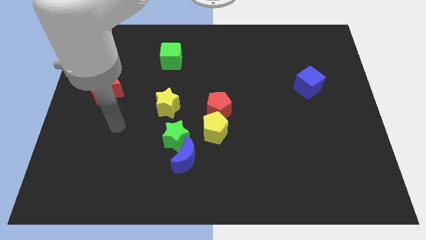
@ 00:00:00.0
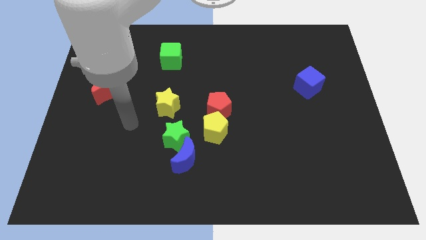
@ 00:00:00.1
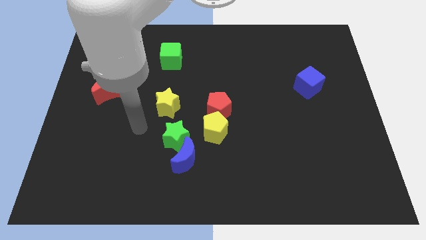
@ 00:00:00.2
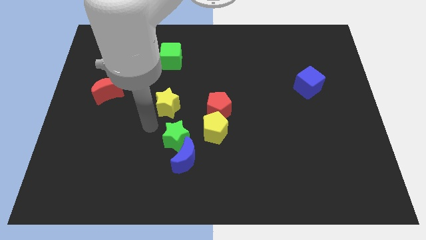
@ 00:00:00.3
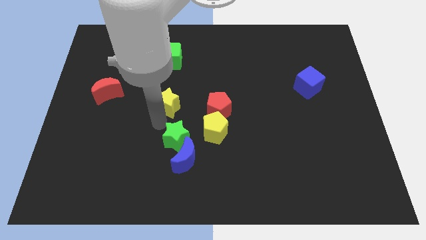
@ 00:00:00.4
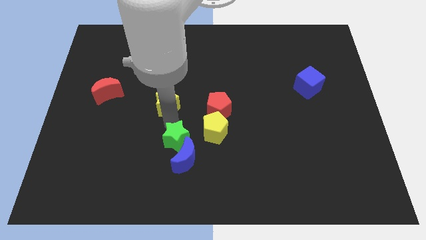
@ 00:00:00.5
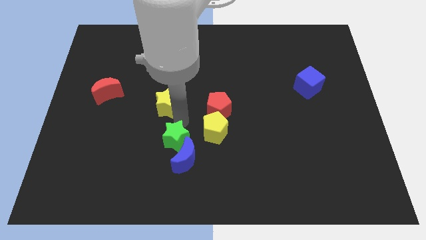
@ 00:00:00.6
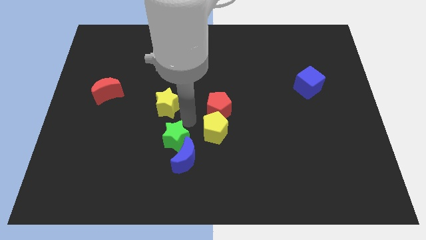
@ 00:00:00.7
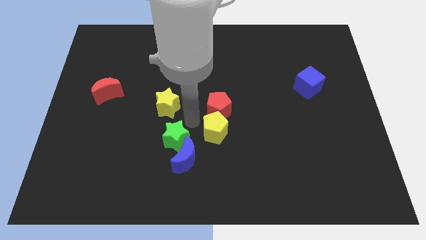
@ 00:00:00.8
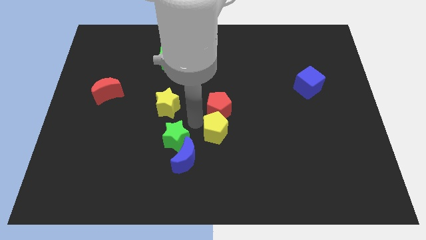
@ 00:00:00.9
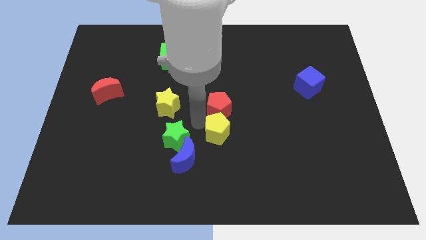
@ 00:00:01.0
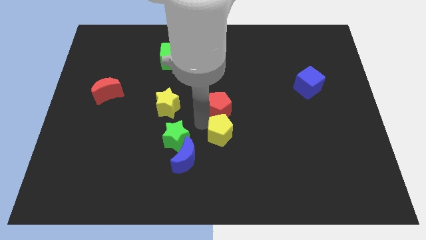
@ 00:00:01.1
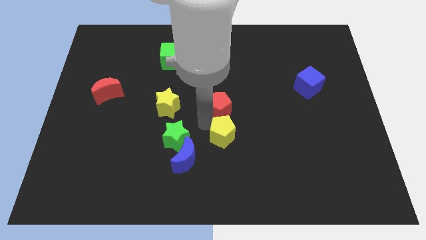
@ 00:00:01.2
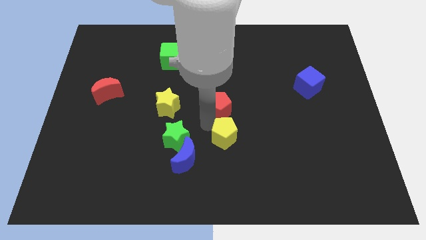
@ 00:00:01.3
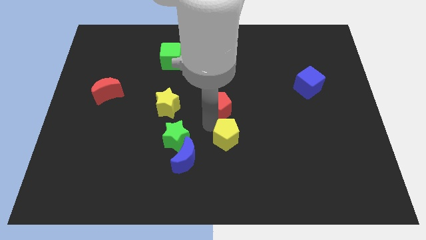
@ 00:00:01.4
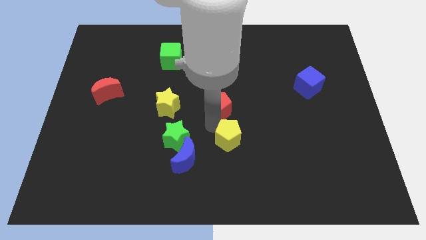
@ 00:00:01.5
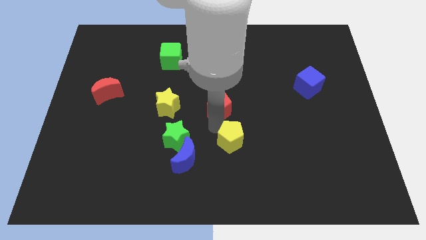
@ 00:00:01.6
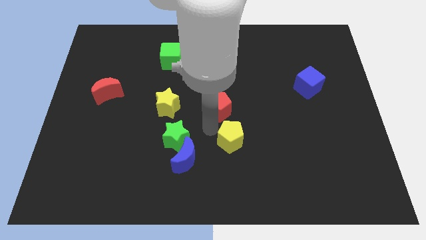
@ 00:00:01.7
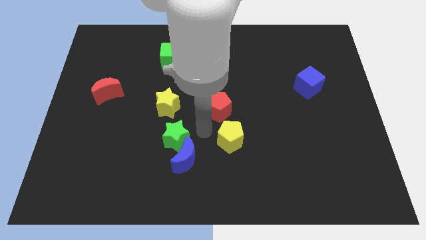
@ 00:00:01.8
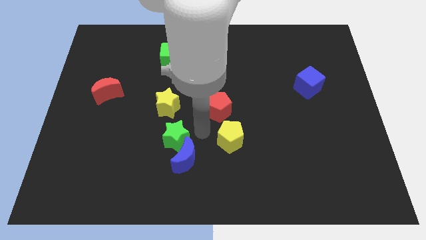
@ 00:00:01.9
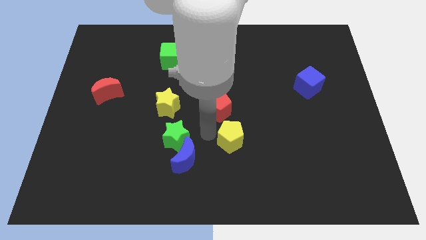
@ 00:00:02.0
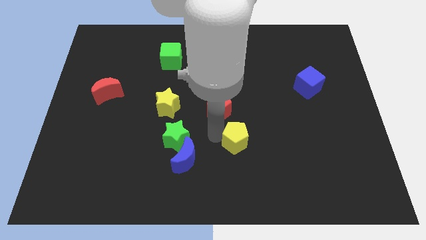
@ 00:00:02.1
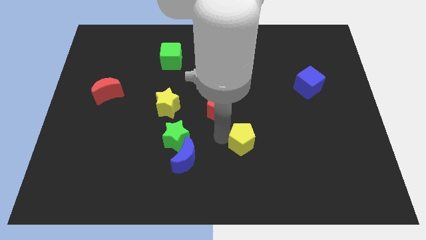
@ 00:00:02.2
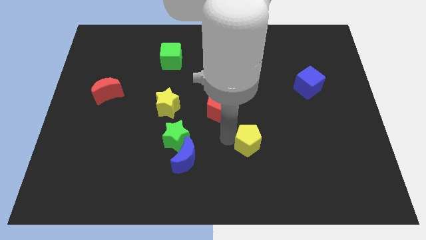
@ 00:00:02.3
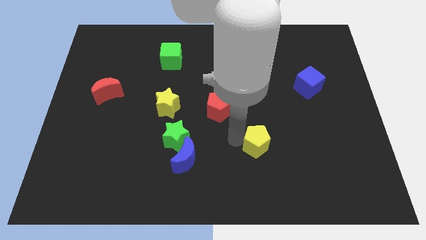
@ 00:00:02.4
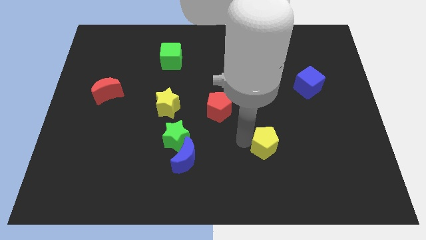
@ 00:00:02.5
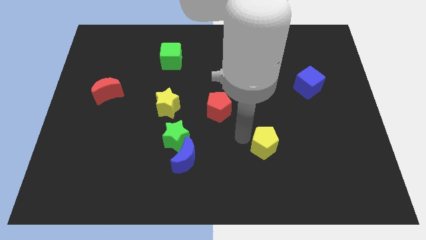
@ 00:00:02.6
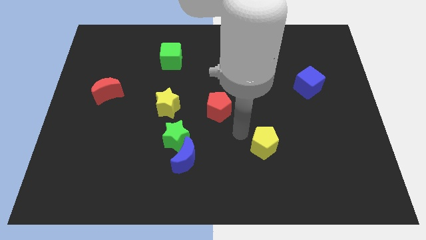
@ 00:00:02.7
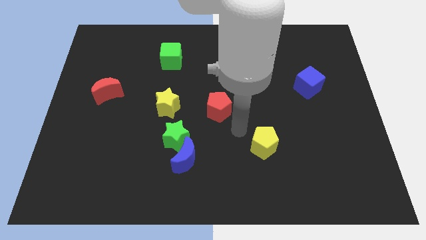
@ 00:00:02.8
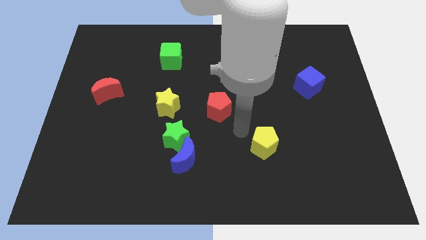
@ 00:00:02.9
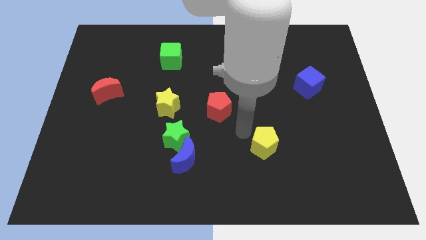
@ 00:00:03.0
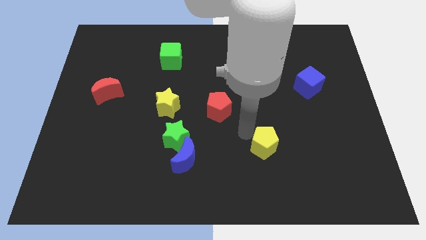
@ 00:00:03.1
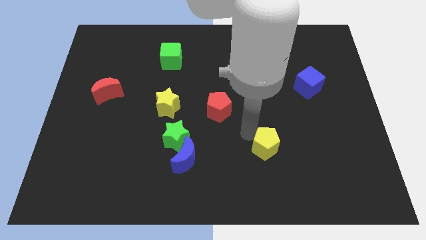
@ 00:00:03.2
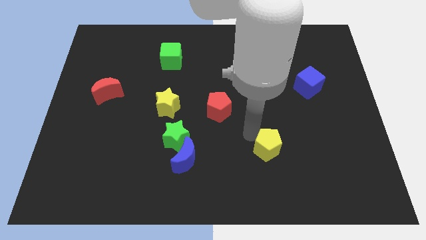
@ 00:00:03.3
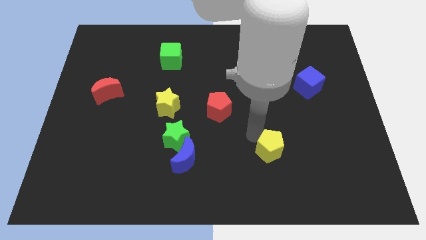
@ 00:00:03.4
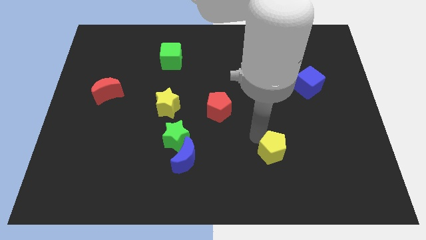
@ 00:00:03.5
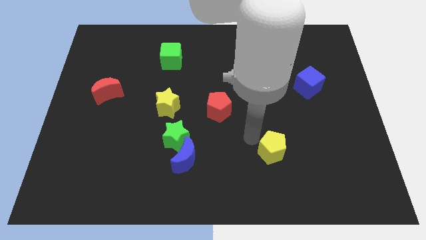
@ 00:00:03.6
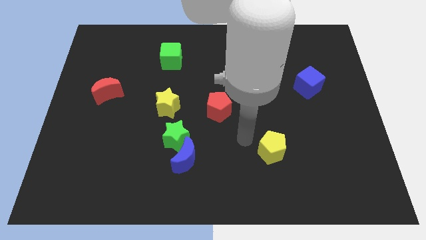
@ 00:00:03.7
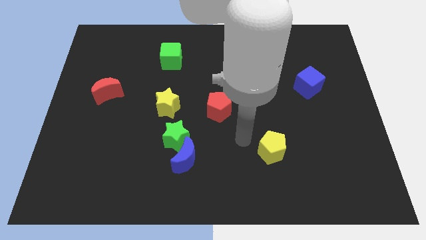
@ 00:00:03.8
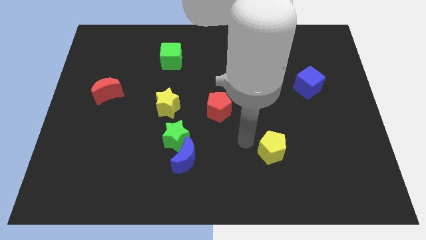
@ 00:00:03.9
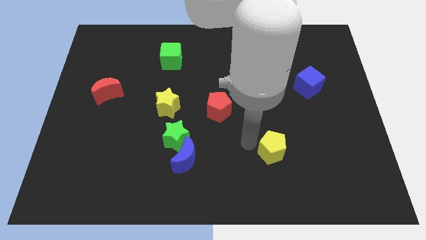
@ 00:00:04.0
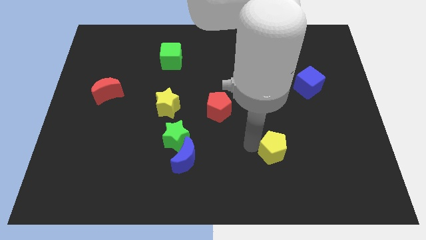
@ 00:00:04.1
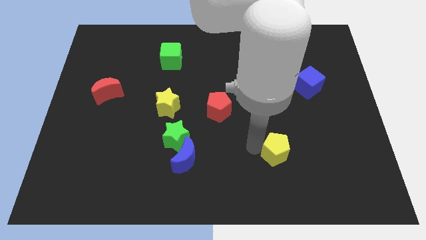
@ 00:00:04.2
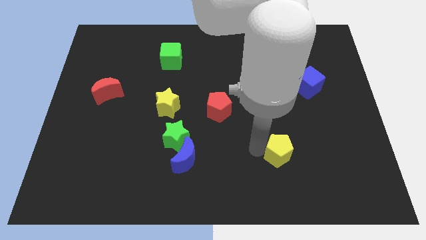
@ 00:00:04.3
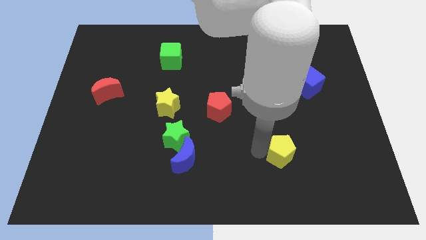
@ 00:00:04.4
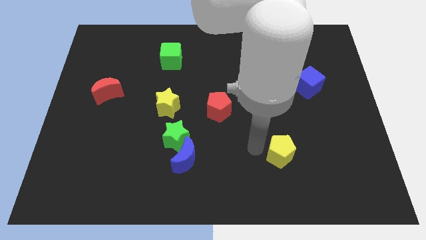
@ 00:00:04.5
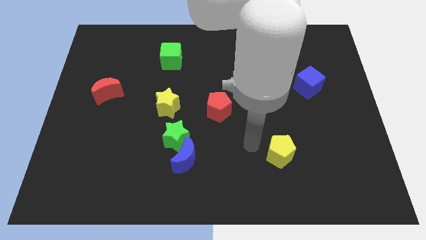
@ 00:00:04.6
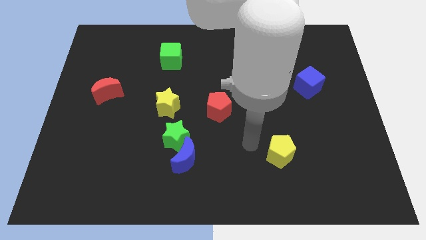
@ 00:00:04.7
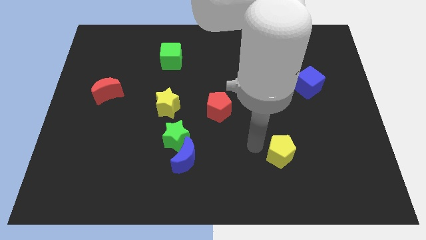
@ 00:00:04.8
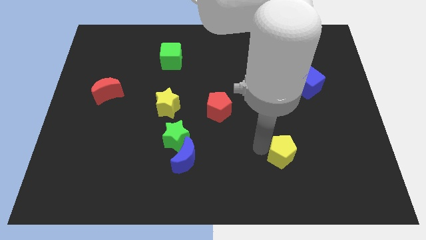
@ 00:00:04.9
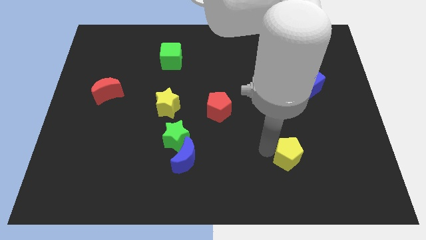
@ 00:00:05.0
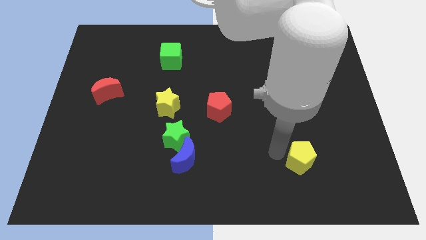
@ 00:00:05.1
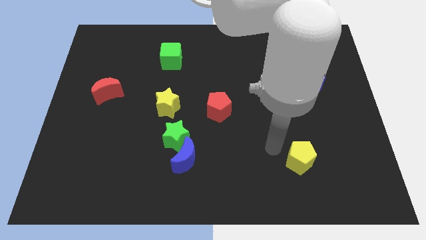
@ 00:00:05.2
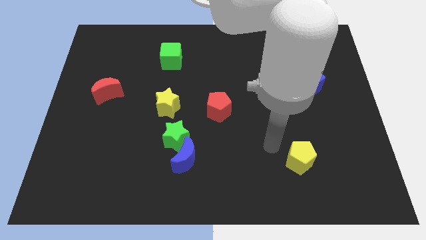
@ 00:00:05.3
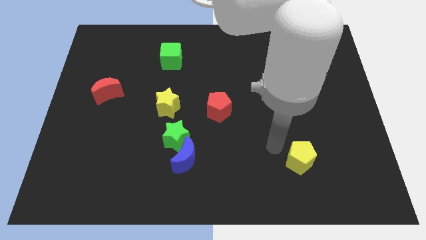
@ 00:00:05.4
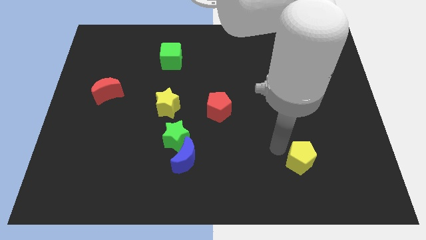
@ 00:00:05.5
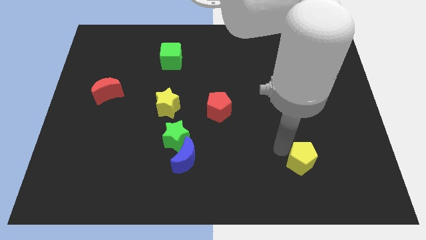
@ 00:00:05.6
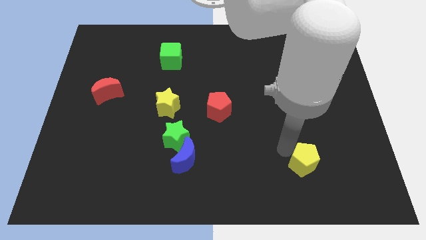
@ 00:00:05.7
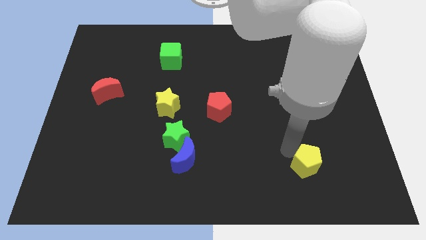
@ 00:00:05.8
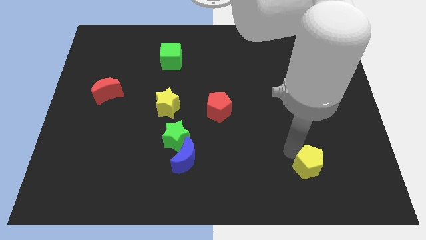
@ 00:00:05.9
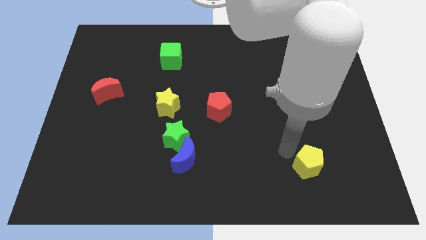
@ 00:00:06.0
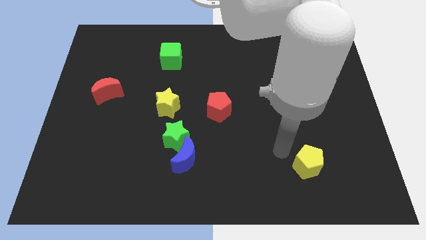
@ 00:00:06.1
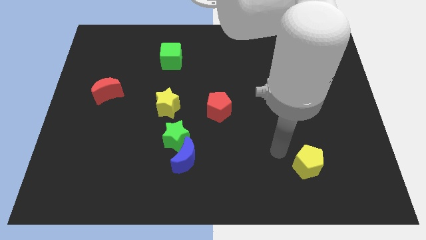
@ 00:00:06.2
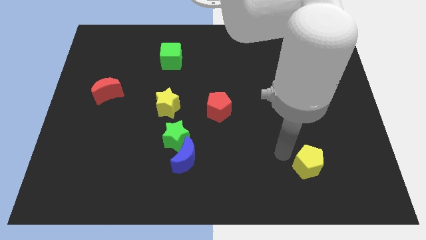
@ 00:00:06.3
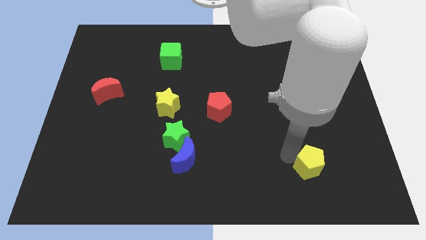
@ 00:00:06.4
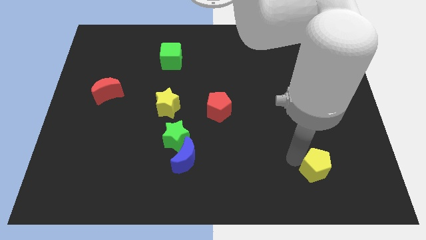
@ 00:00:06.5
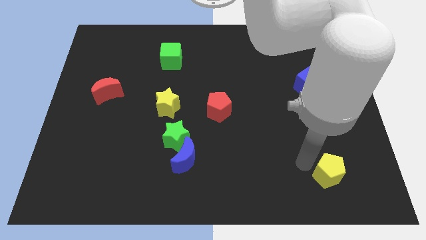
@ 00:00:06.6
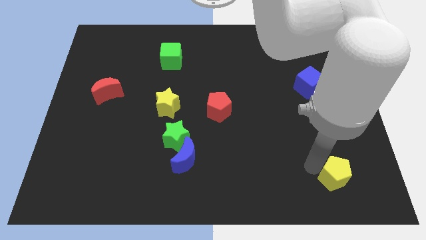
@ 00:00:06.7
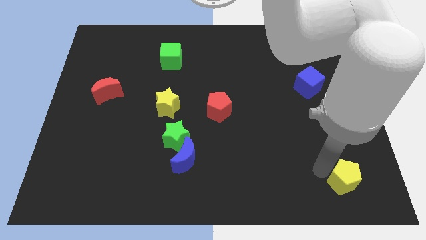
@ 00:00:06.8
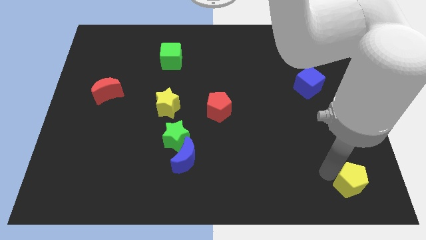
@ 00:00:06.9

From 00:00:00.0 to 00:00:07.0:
push the yellow pentagon to the bottom right corner
